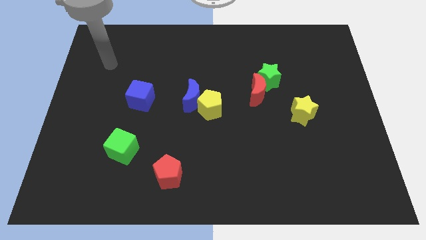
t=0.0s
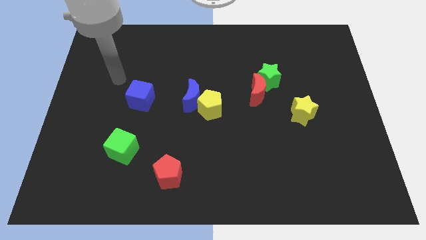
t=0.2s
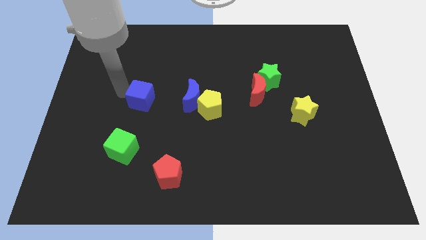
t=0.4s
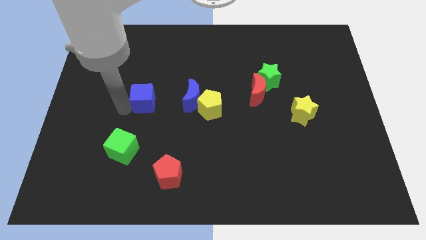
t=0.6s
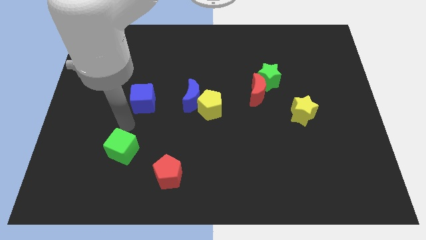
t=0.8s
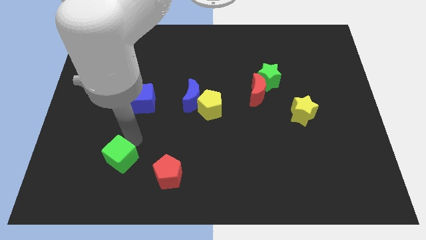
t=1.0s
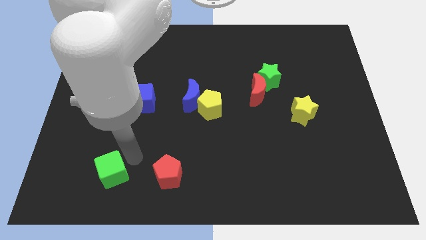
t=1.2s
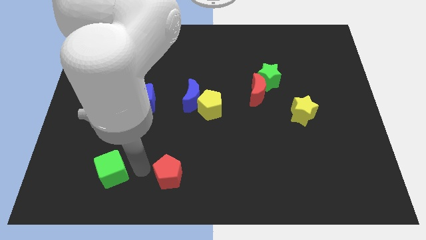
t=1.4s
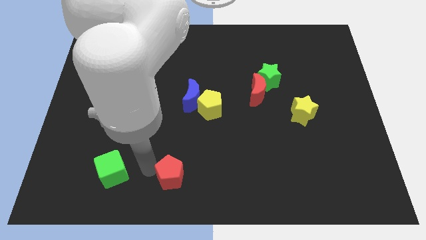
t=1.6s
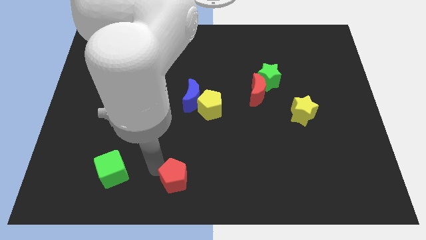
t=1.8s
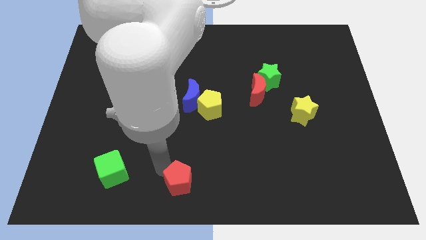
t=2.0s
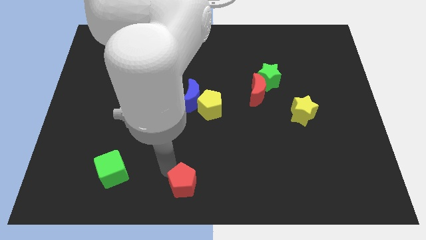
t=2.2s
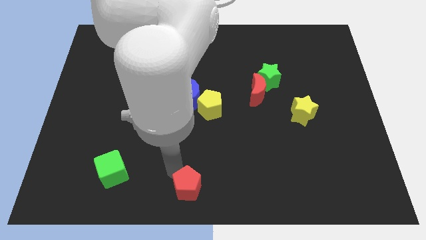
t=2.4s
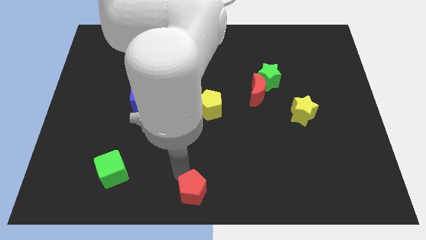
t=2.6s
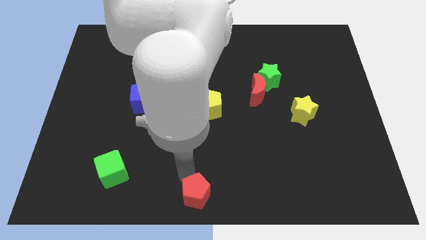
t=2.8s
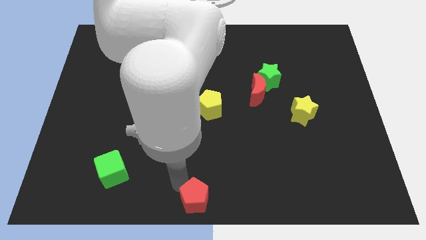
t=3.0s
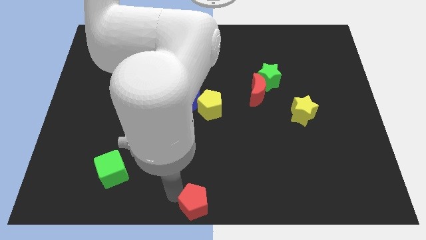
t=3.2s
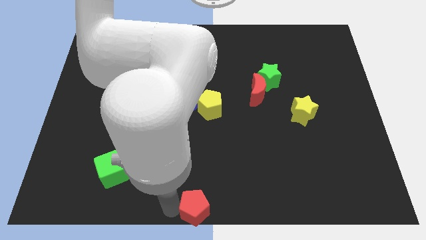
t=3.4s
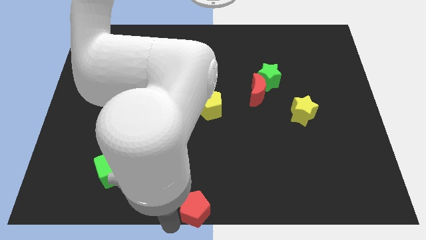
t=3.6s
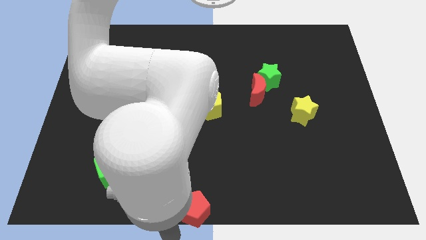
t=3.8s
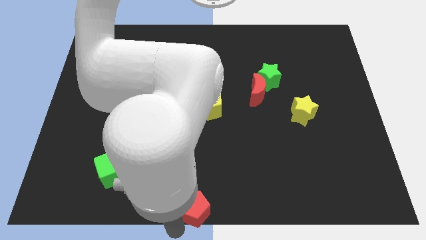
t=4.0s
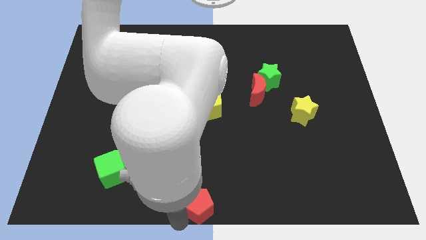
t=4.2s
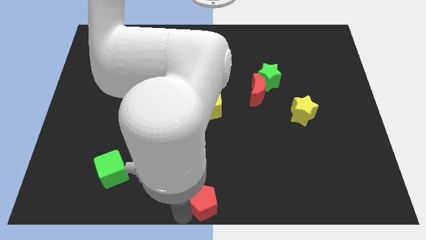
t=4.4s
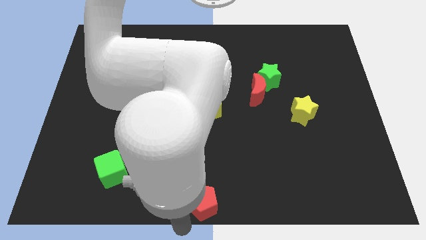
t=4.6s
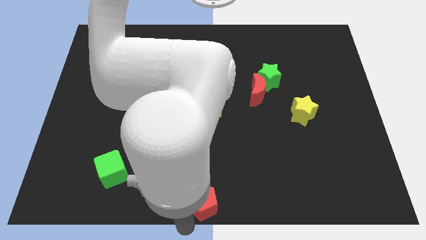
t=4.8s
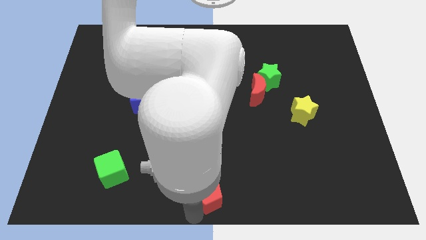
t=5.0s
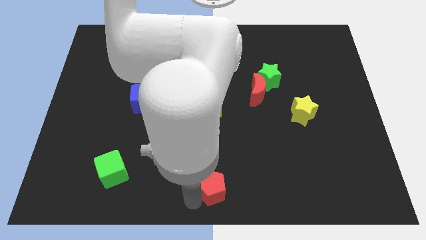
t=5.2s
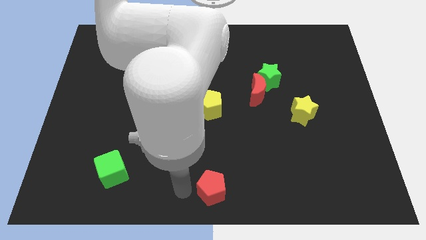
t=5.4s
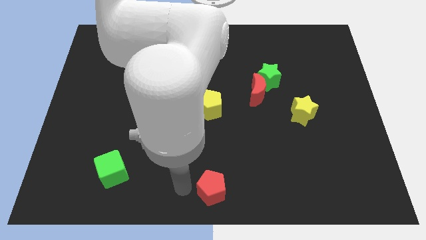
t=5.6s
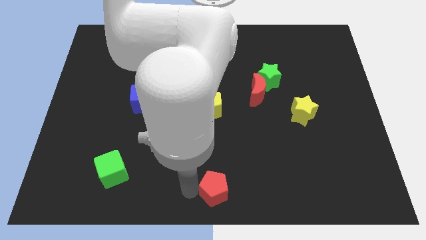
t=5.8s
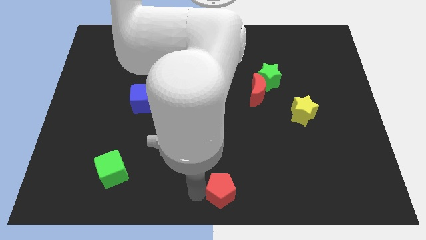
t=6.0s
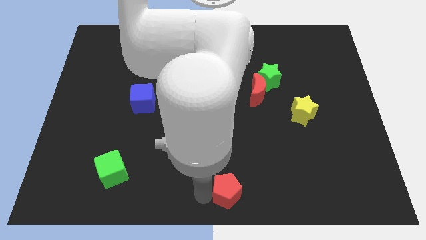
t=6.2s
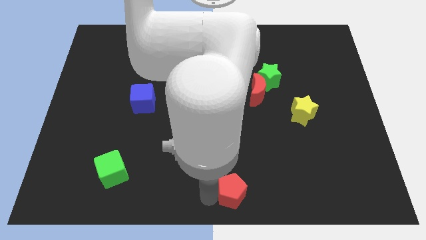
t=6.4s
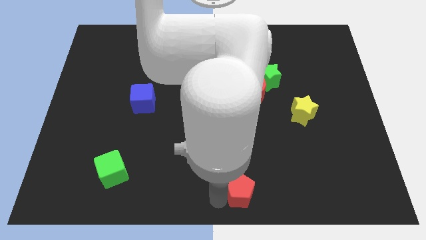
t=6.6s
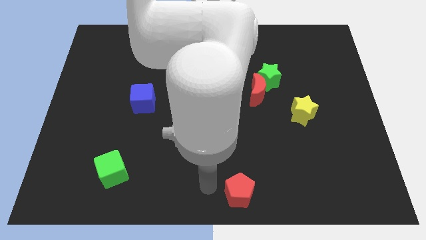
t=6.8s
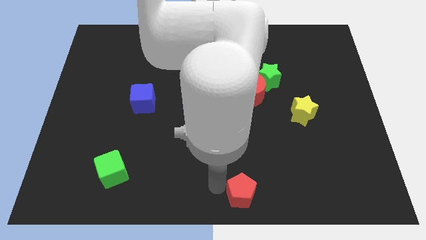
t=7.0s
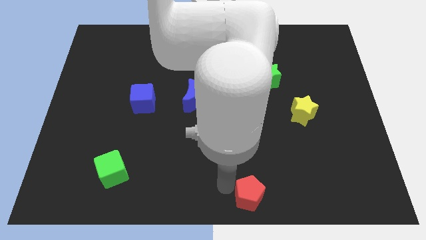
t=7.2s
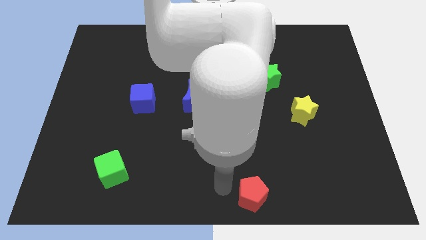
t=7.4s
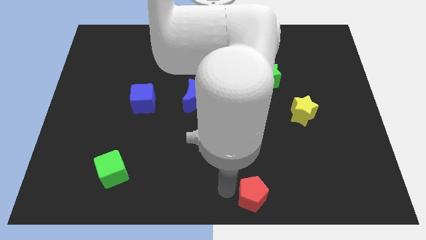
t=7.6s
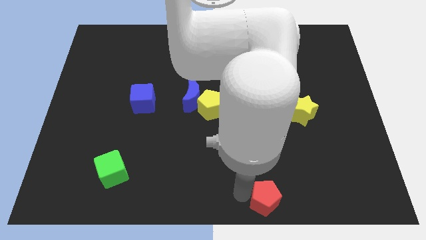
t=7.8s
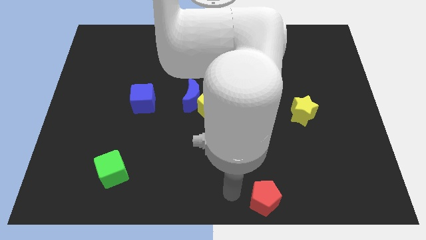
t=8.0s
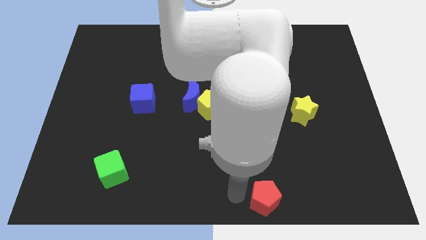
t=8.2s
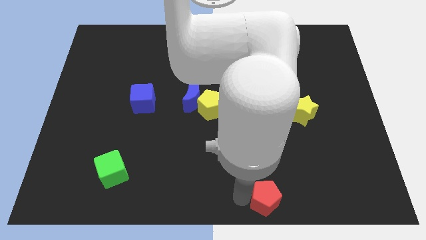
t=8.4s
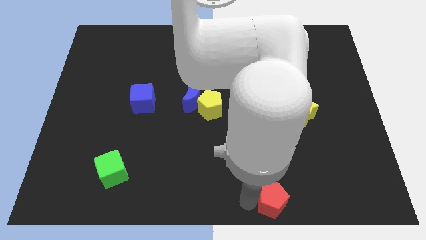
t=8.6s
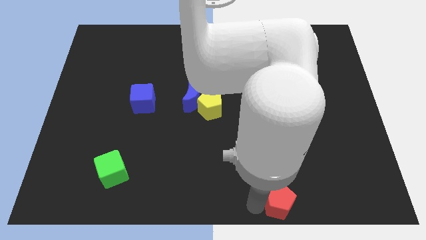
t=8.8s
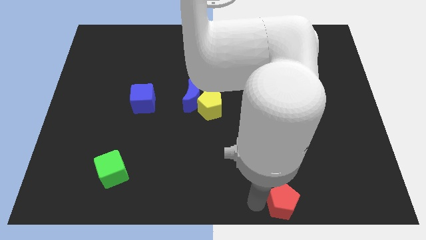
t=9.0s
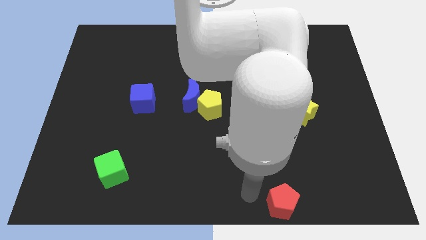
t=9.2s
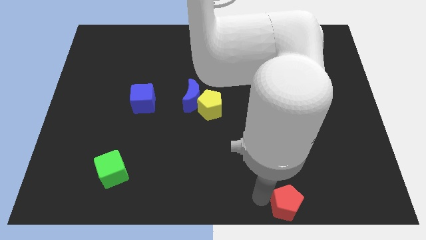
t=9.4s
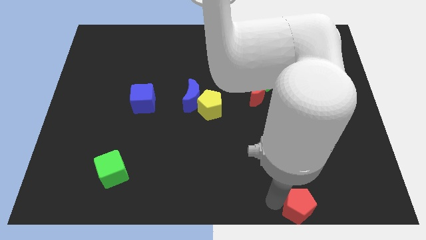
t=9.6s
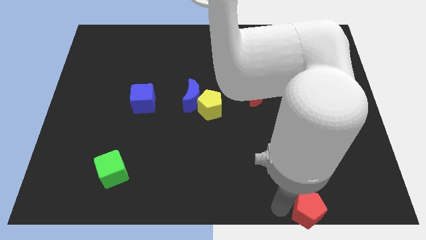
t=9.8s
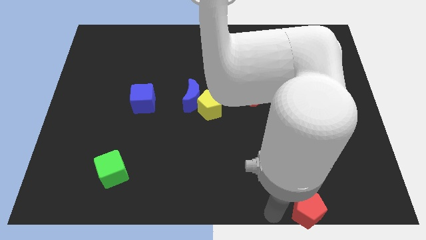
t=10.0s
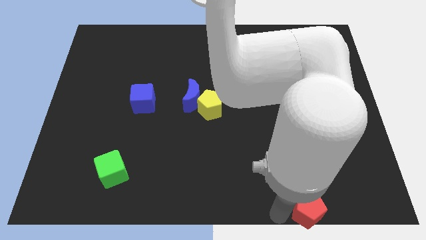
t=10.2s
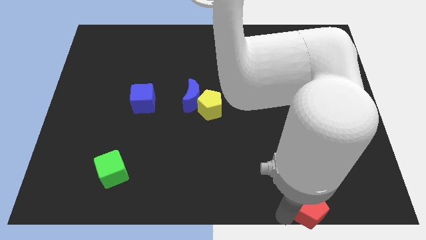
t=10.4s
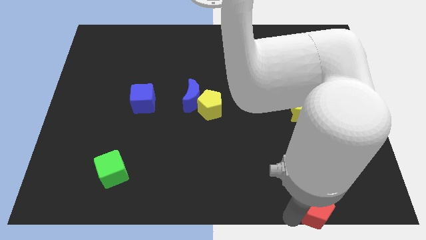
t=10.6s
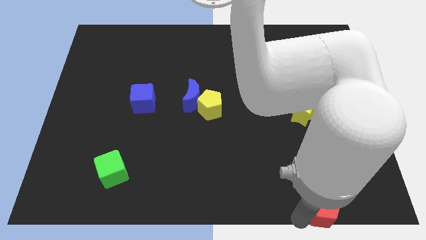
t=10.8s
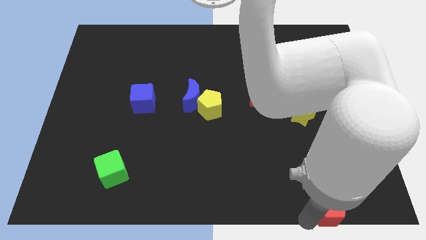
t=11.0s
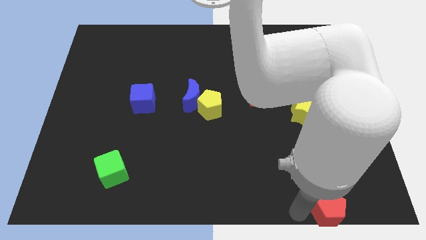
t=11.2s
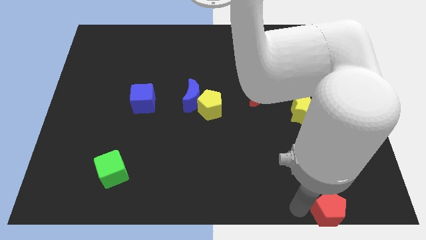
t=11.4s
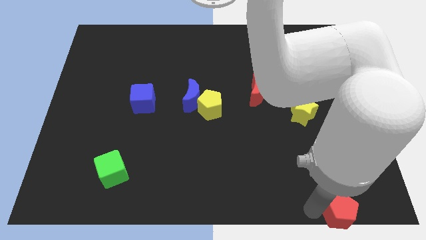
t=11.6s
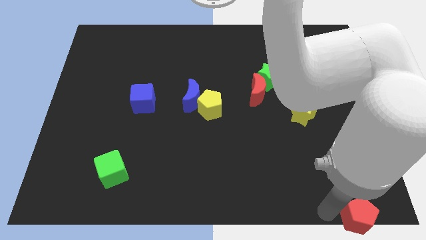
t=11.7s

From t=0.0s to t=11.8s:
move the red pentagon to the bottom right of the board

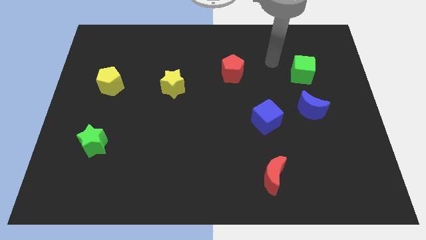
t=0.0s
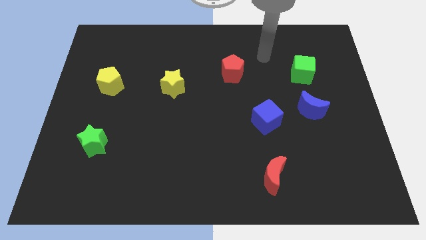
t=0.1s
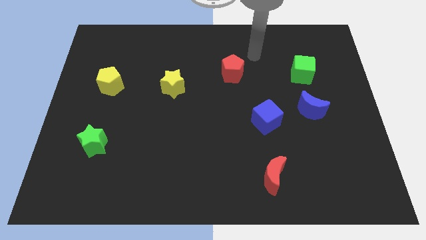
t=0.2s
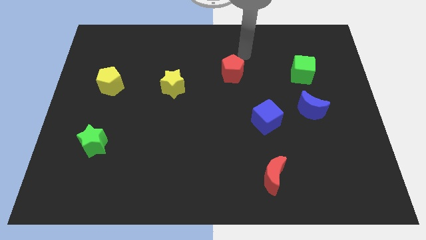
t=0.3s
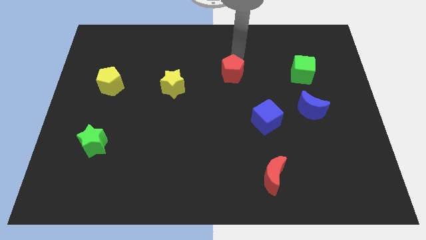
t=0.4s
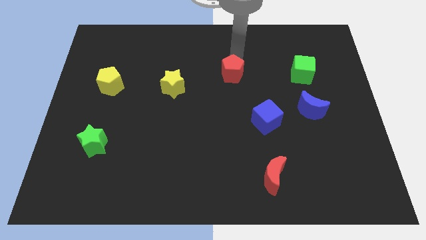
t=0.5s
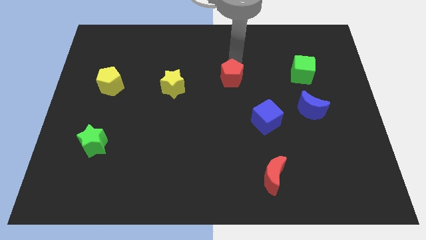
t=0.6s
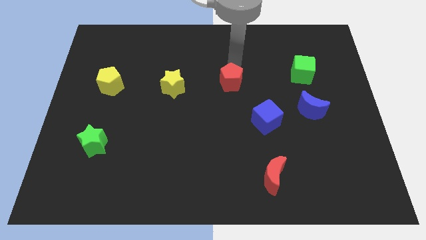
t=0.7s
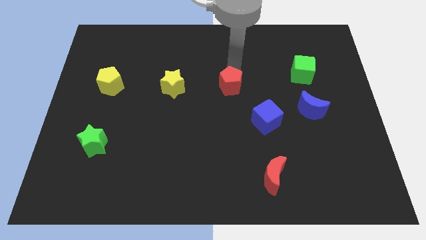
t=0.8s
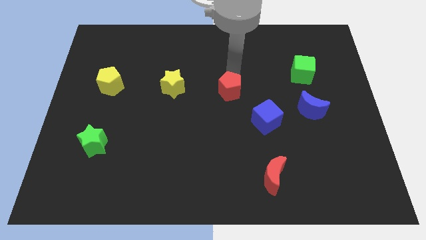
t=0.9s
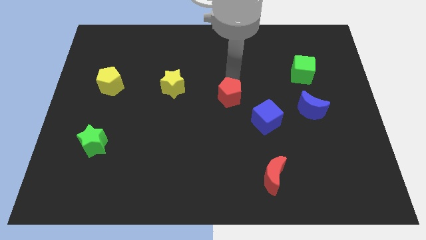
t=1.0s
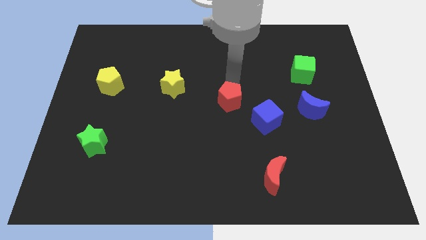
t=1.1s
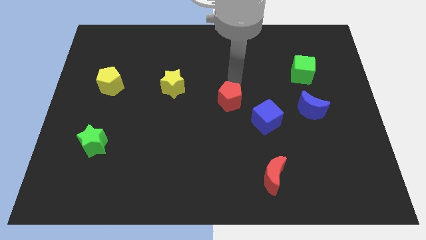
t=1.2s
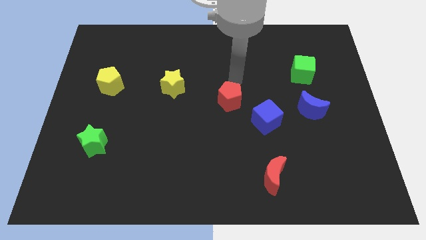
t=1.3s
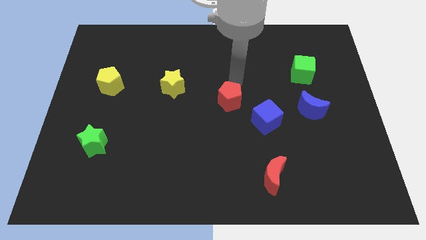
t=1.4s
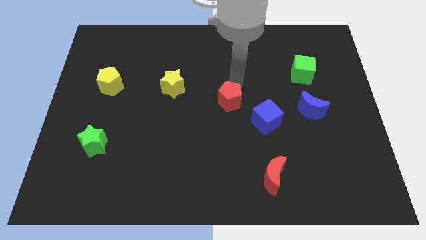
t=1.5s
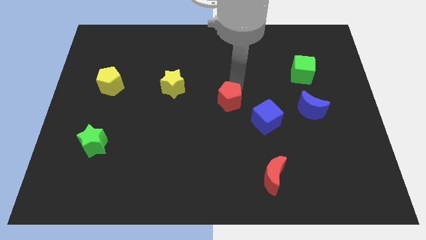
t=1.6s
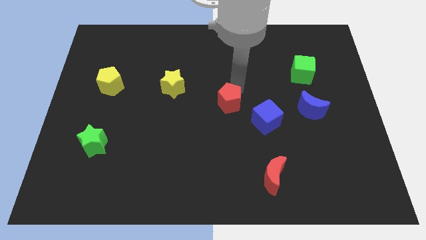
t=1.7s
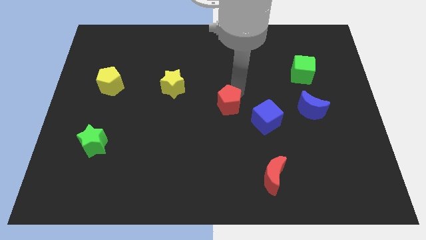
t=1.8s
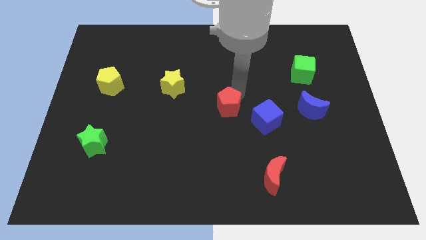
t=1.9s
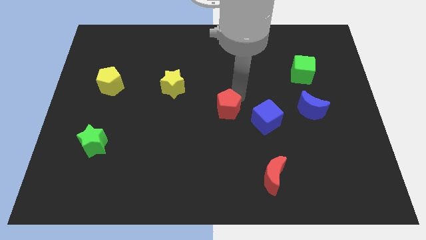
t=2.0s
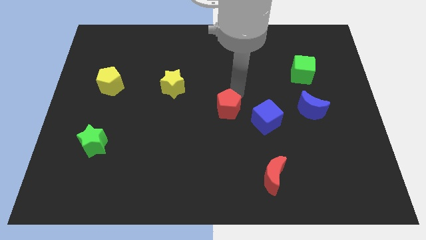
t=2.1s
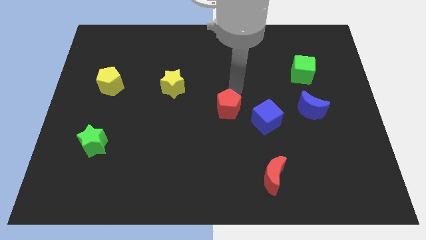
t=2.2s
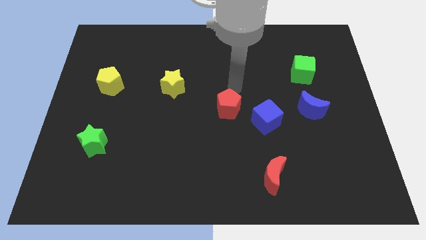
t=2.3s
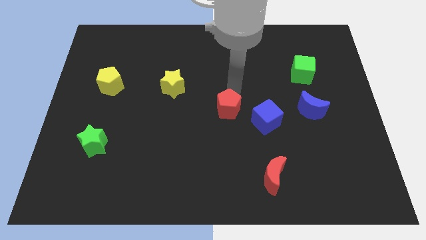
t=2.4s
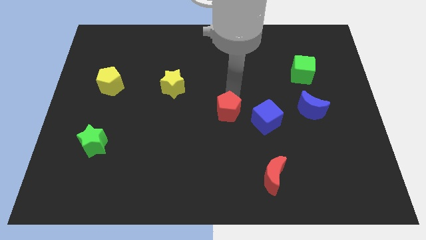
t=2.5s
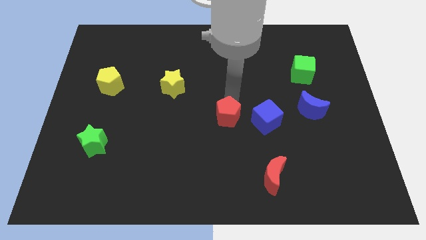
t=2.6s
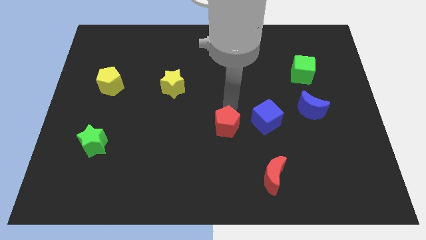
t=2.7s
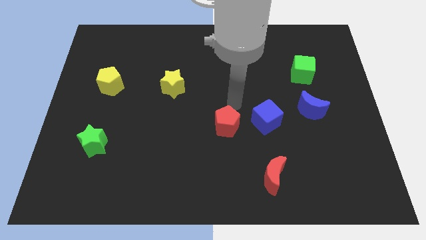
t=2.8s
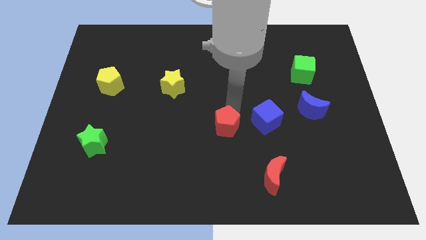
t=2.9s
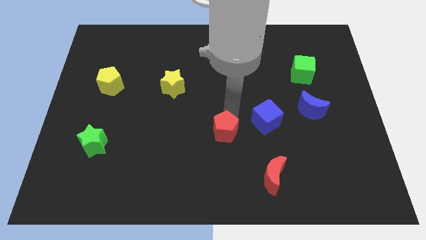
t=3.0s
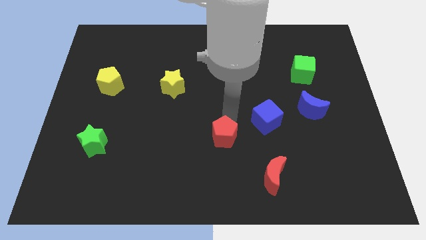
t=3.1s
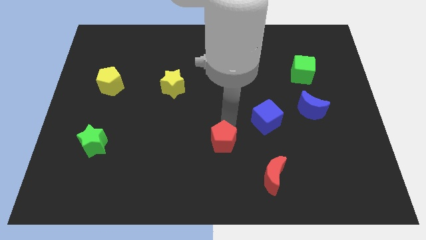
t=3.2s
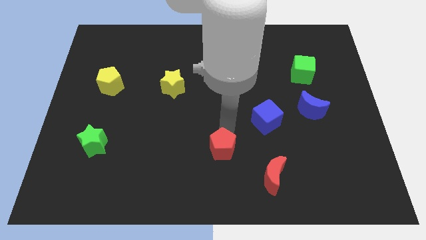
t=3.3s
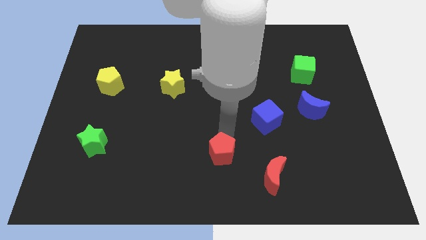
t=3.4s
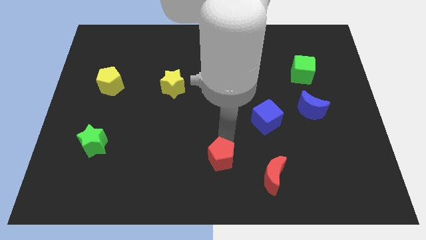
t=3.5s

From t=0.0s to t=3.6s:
push the red pentagon to the bottom
